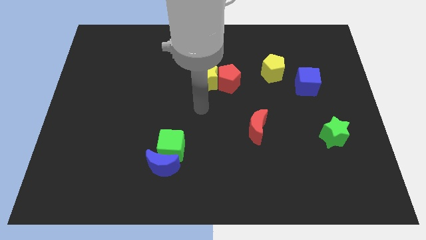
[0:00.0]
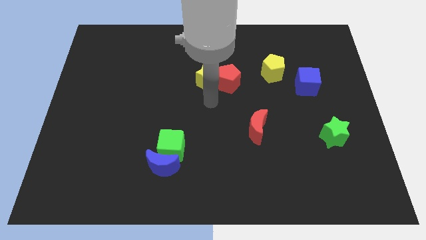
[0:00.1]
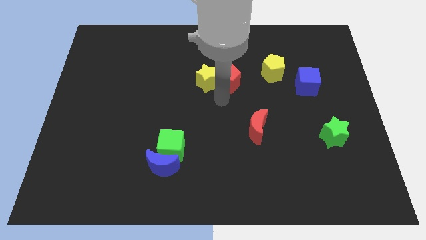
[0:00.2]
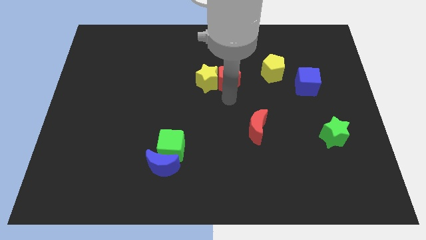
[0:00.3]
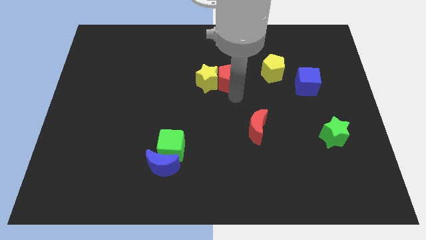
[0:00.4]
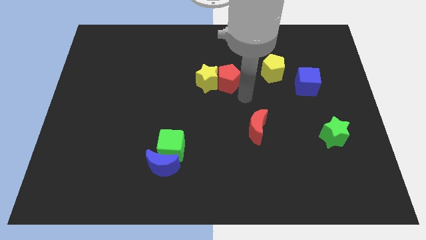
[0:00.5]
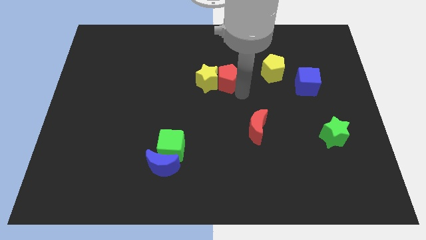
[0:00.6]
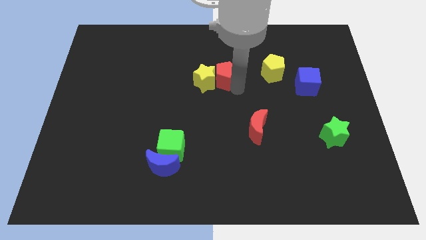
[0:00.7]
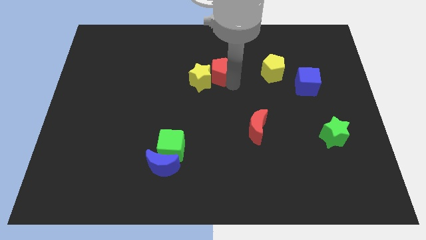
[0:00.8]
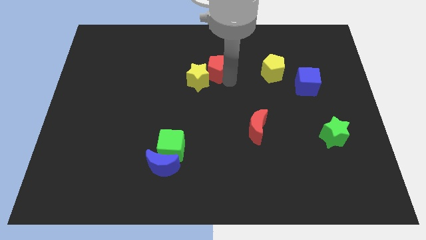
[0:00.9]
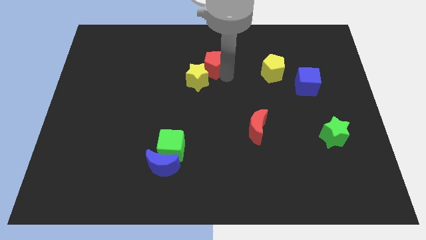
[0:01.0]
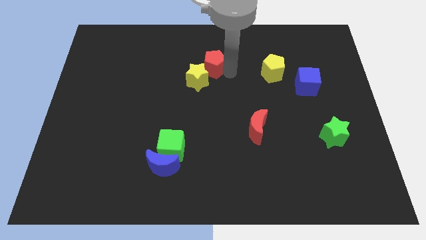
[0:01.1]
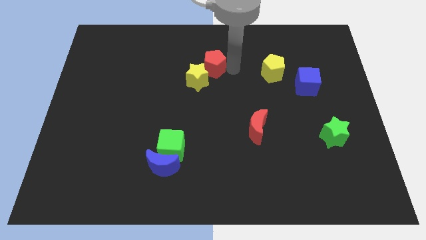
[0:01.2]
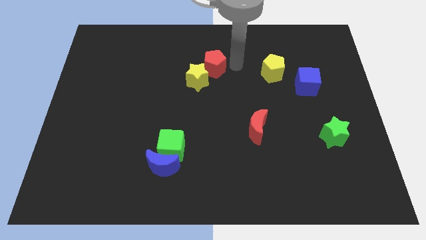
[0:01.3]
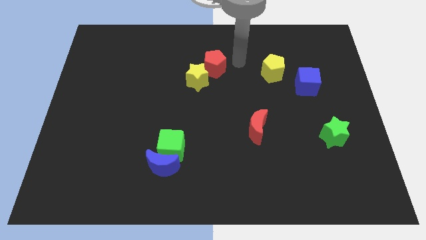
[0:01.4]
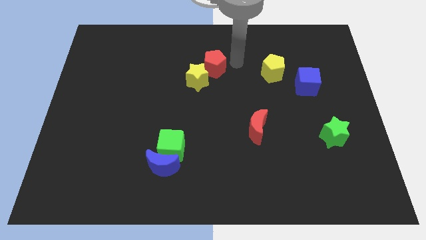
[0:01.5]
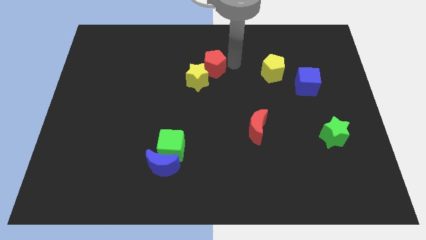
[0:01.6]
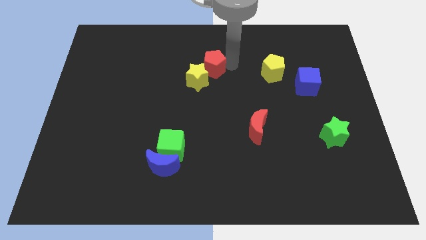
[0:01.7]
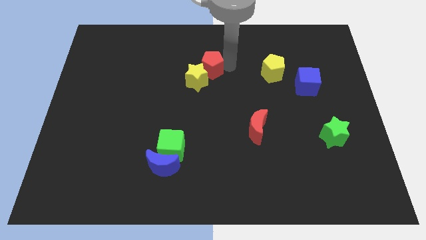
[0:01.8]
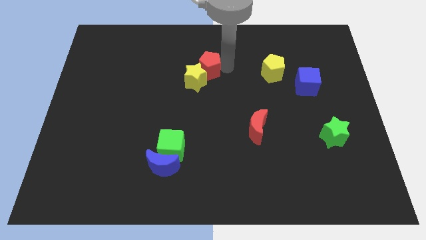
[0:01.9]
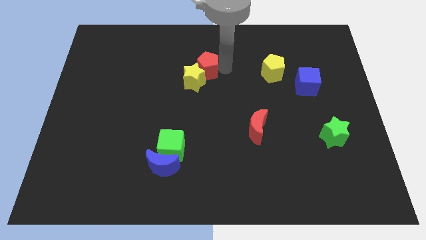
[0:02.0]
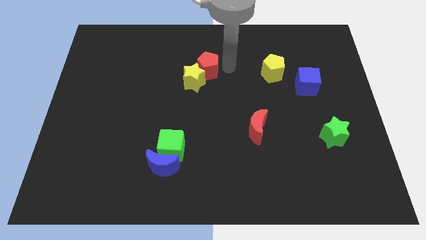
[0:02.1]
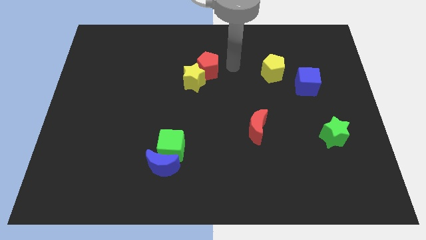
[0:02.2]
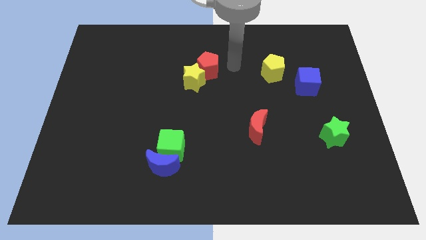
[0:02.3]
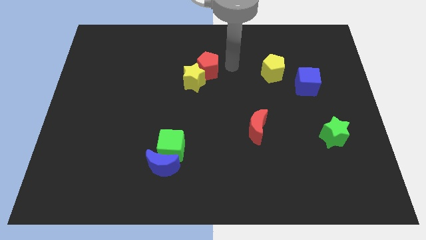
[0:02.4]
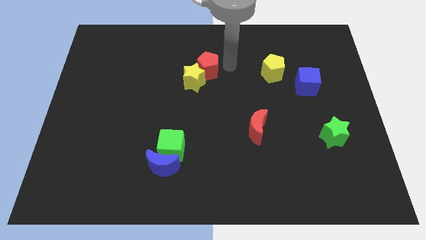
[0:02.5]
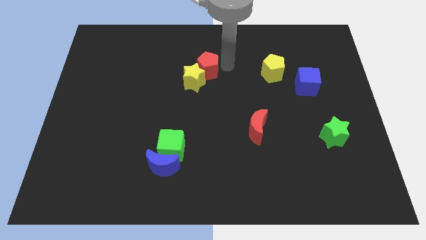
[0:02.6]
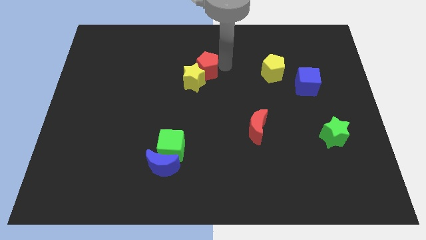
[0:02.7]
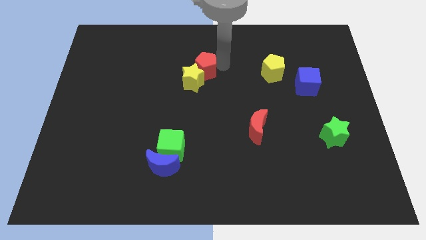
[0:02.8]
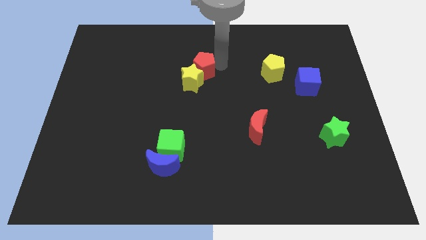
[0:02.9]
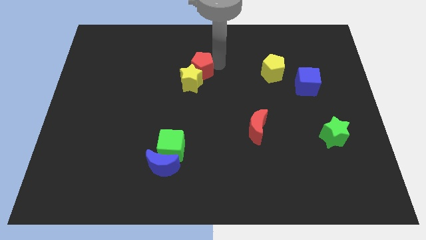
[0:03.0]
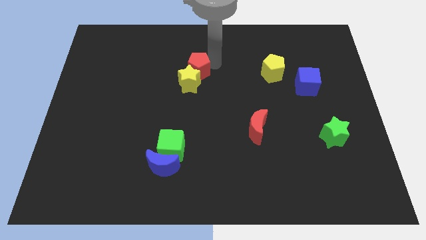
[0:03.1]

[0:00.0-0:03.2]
slightly slide the red pentagon left

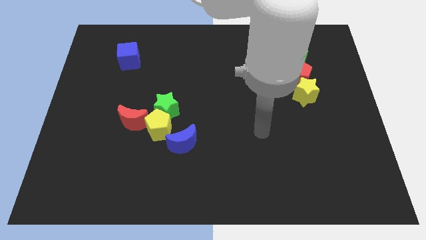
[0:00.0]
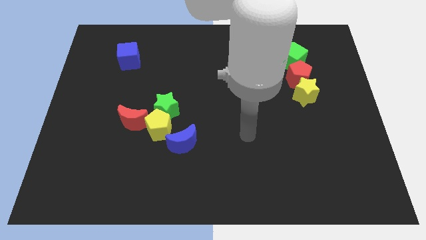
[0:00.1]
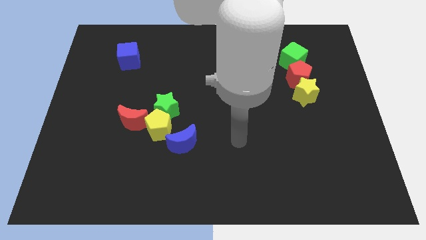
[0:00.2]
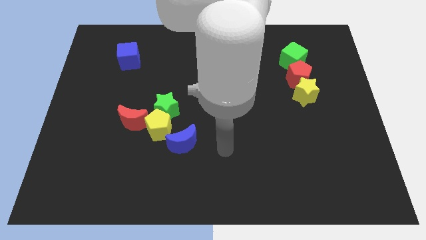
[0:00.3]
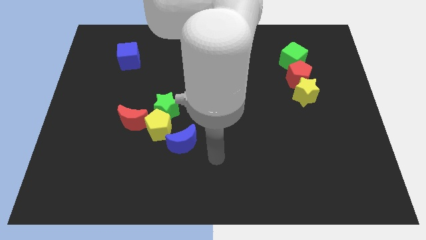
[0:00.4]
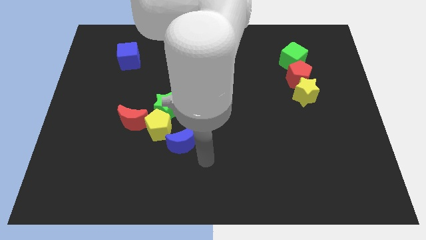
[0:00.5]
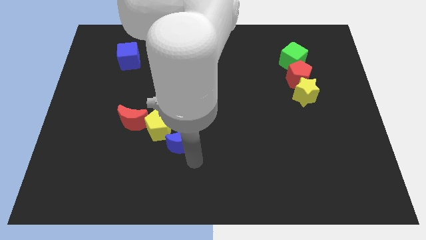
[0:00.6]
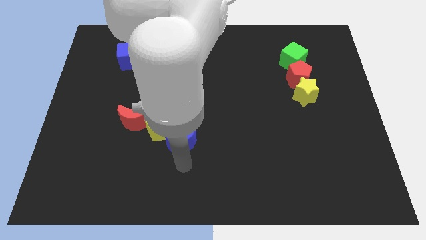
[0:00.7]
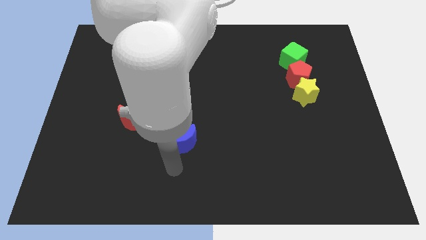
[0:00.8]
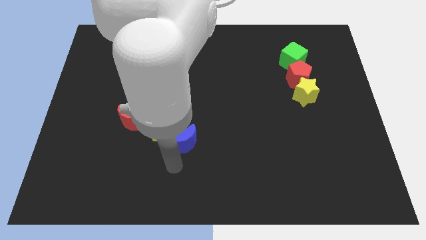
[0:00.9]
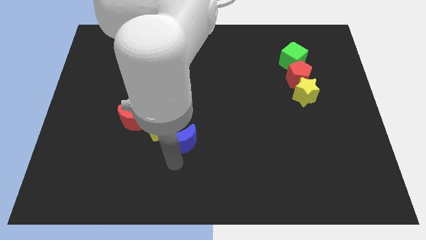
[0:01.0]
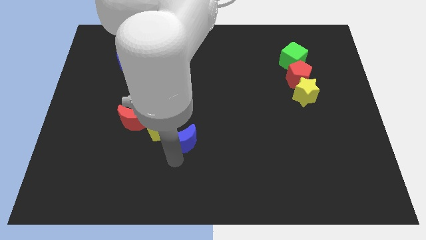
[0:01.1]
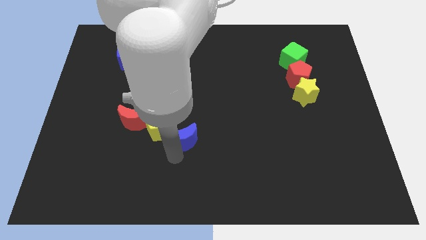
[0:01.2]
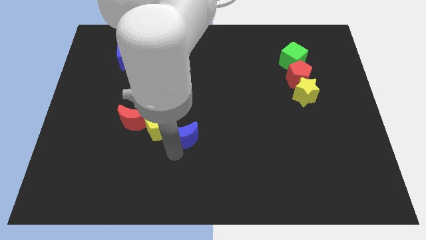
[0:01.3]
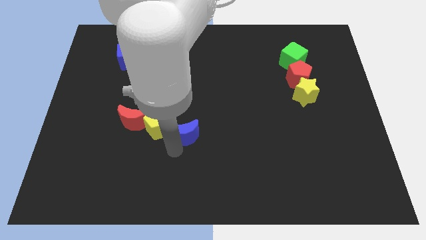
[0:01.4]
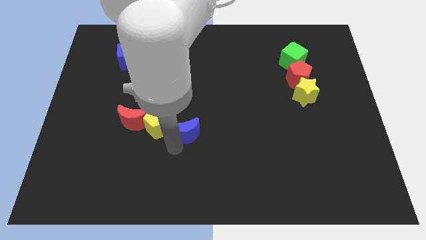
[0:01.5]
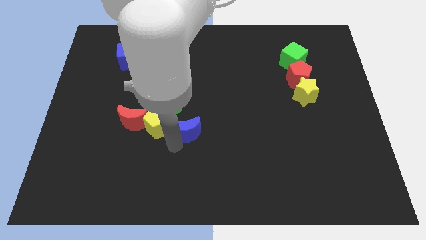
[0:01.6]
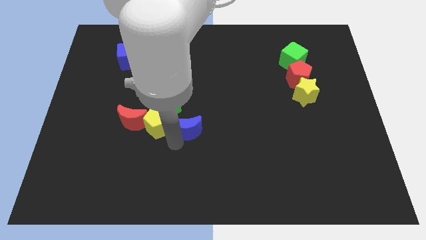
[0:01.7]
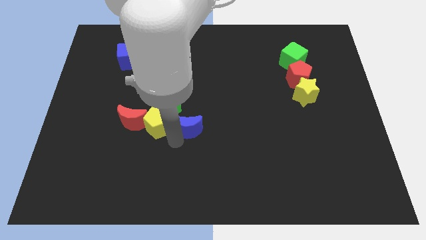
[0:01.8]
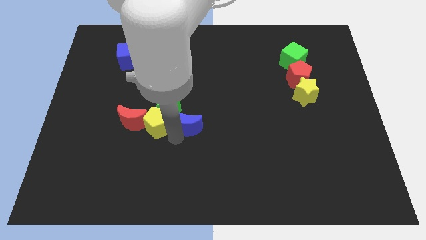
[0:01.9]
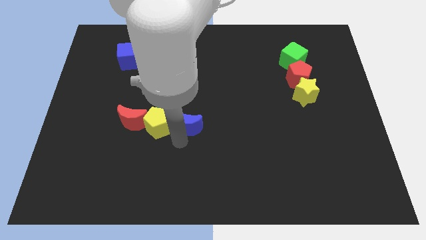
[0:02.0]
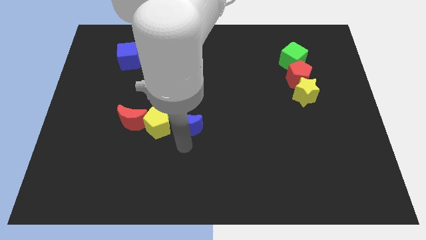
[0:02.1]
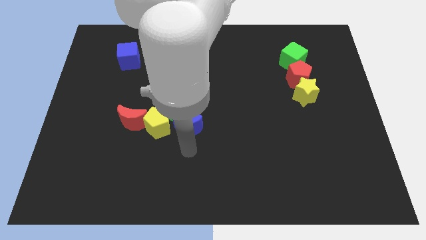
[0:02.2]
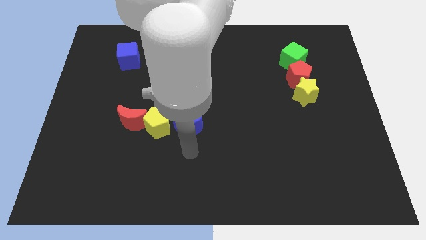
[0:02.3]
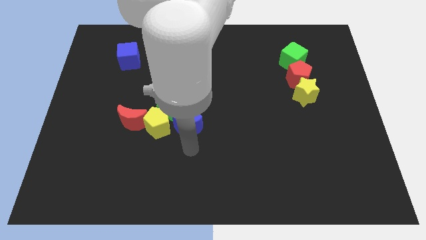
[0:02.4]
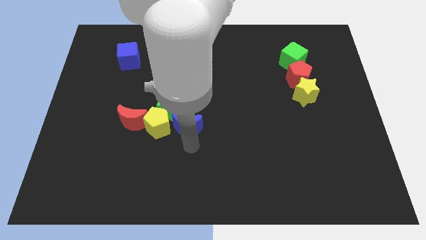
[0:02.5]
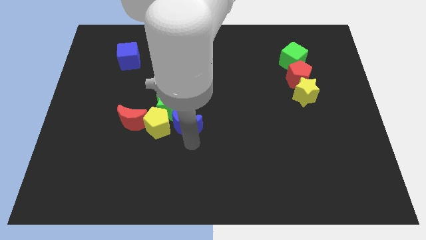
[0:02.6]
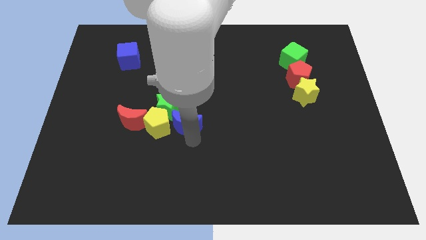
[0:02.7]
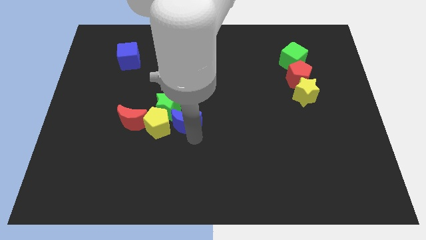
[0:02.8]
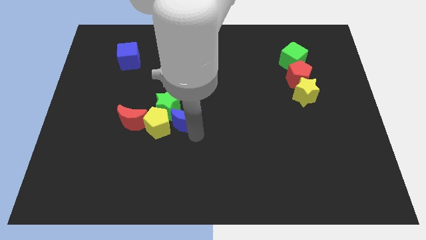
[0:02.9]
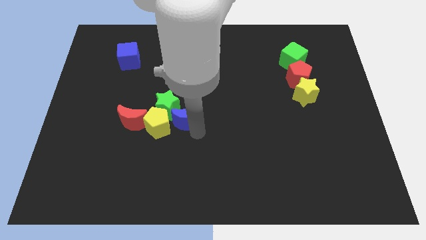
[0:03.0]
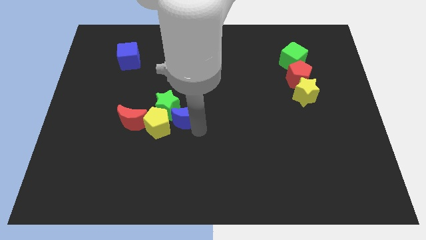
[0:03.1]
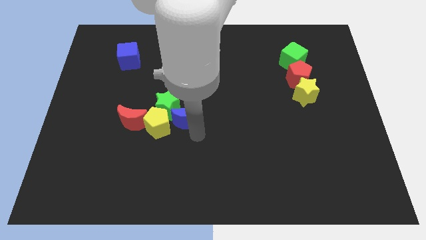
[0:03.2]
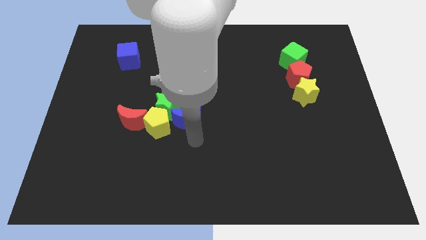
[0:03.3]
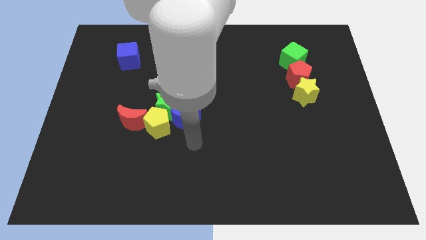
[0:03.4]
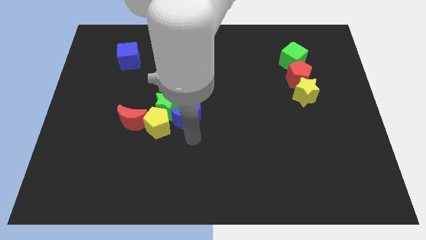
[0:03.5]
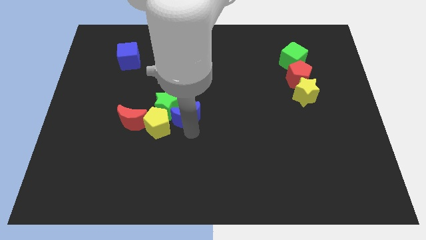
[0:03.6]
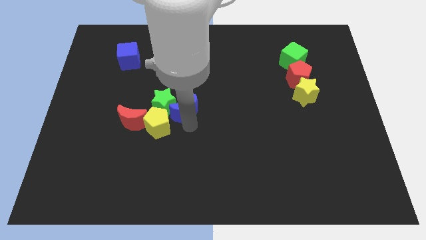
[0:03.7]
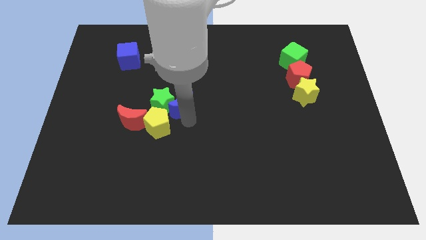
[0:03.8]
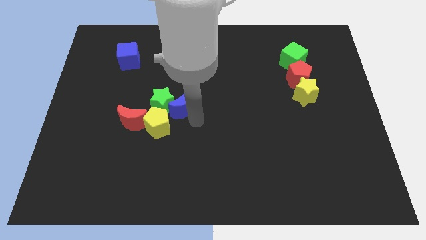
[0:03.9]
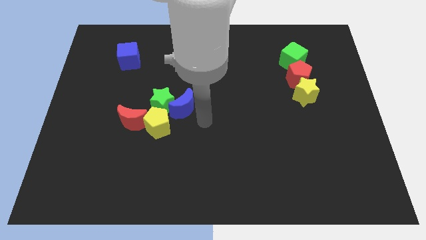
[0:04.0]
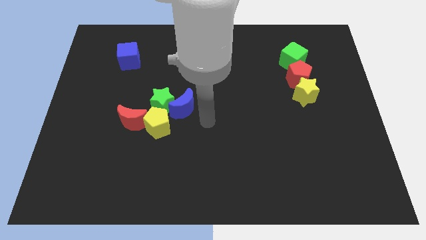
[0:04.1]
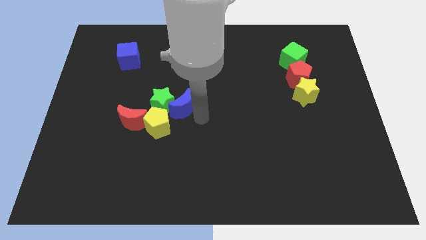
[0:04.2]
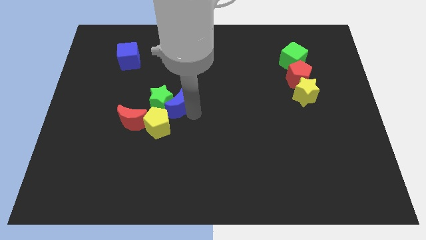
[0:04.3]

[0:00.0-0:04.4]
push the blue moon up and left a little bit

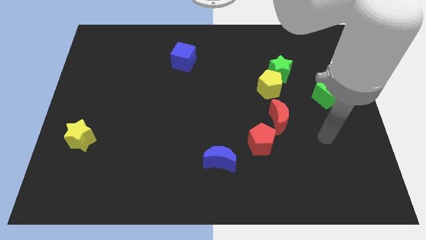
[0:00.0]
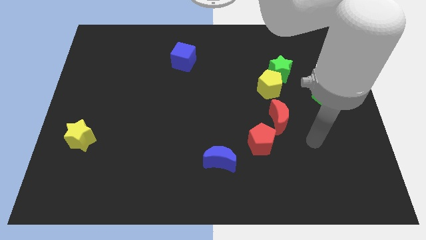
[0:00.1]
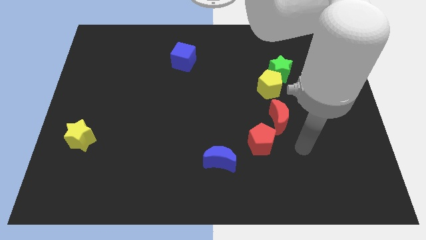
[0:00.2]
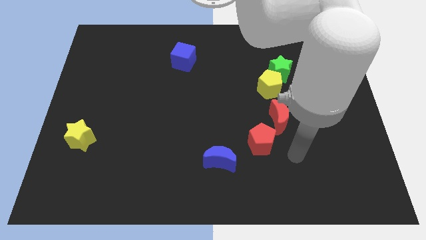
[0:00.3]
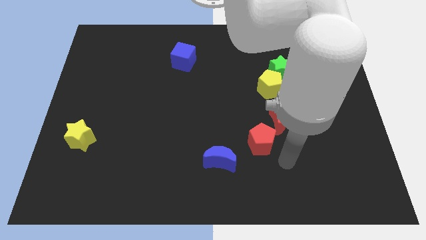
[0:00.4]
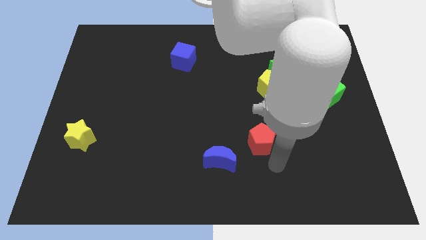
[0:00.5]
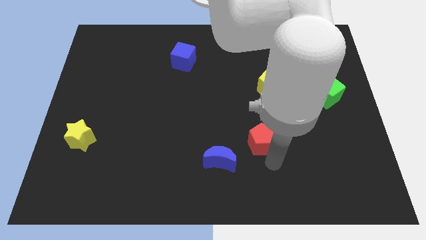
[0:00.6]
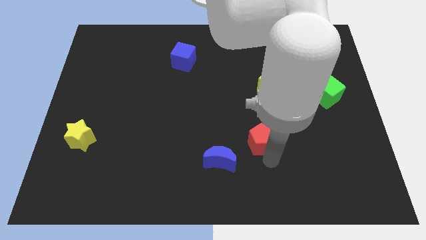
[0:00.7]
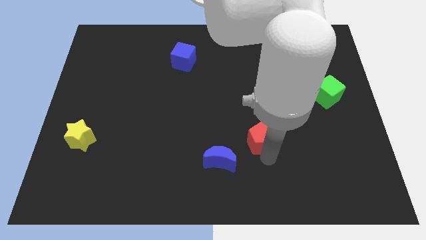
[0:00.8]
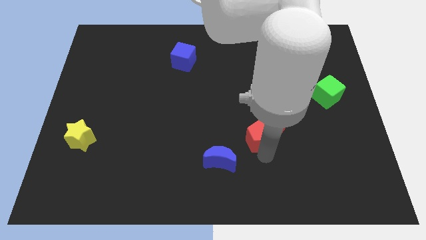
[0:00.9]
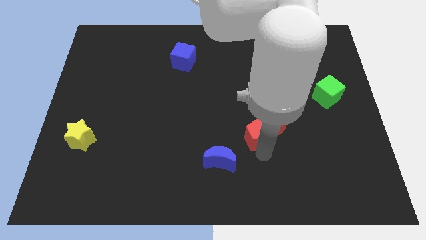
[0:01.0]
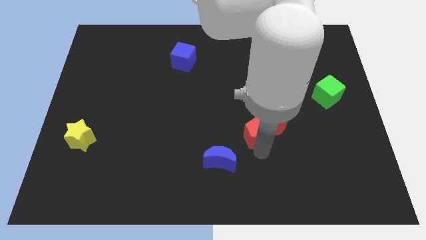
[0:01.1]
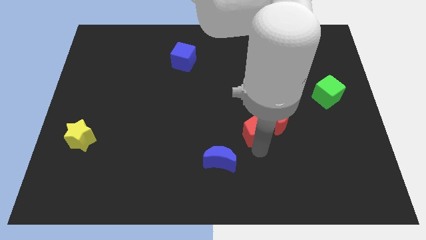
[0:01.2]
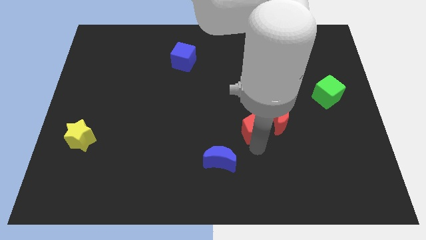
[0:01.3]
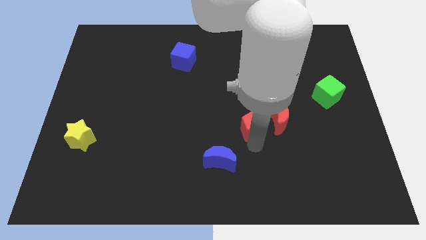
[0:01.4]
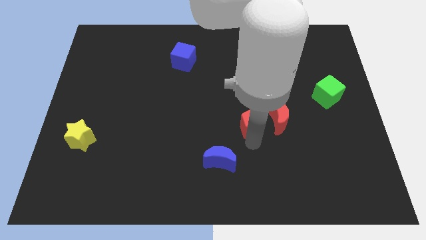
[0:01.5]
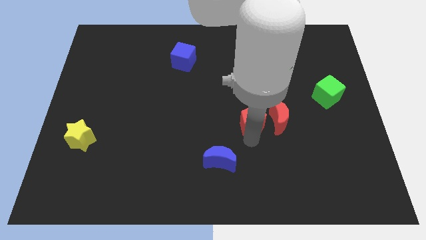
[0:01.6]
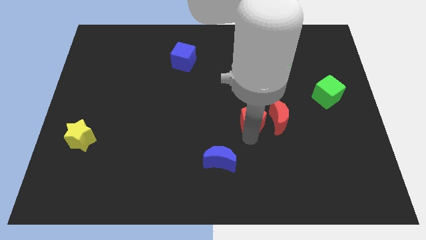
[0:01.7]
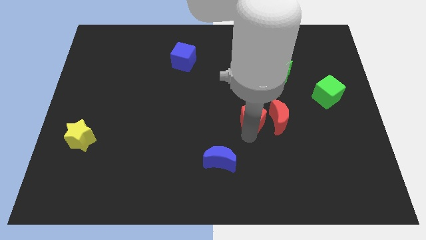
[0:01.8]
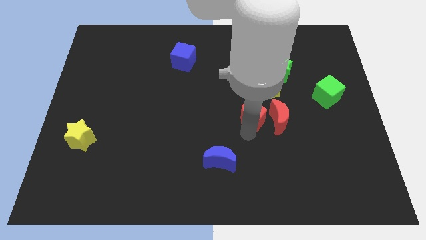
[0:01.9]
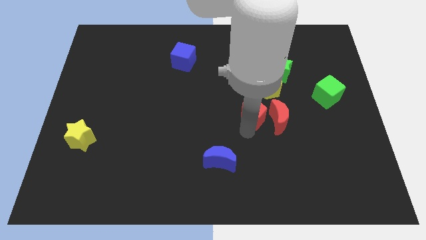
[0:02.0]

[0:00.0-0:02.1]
slightly slide the red pentagon upwards
